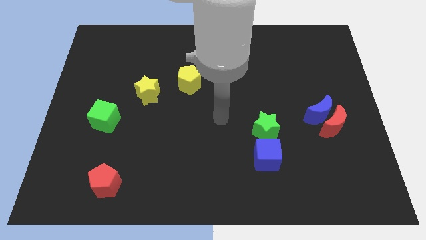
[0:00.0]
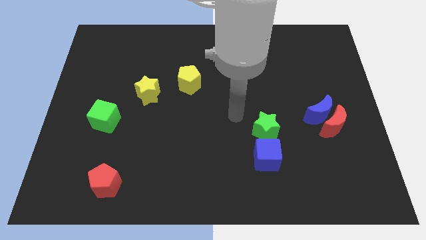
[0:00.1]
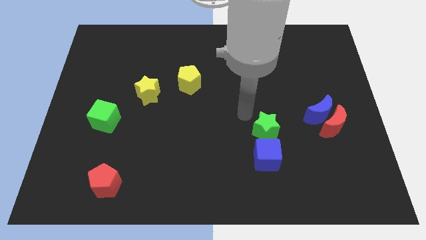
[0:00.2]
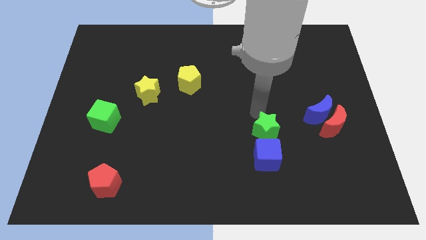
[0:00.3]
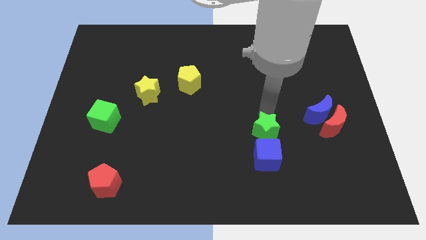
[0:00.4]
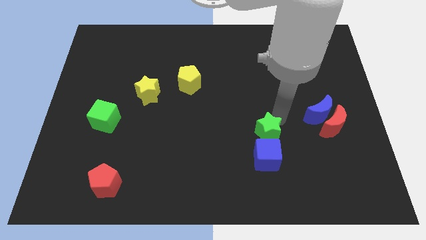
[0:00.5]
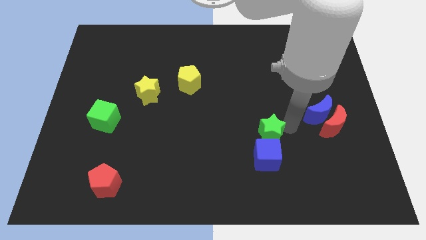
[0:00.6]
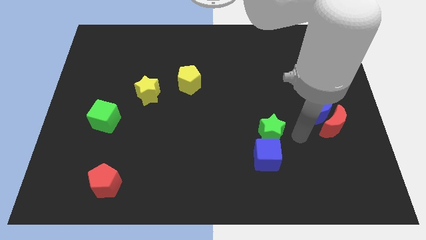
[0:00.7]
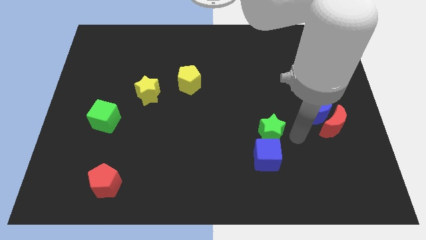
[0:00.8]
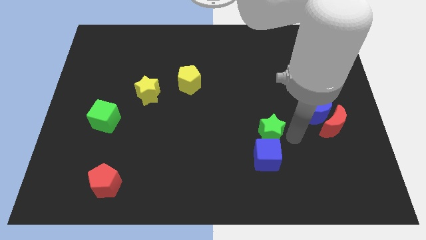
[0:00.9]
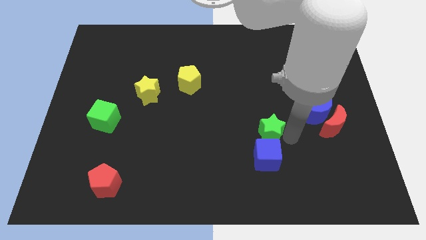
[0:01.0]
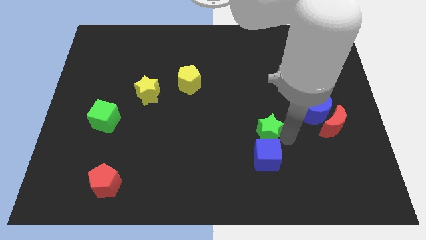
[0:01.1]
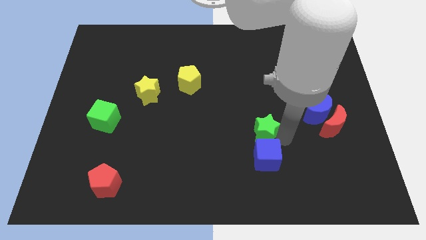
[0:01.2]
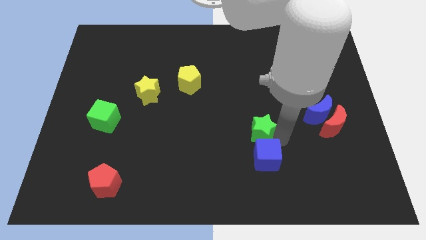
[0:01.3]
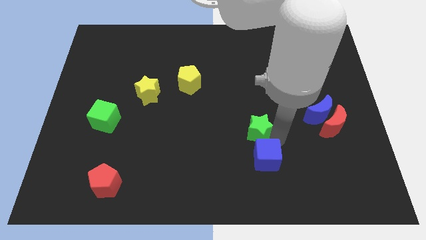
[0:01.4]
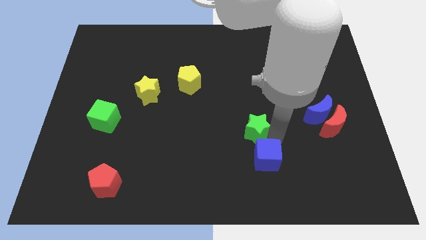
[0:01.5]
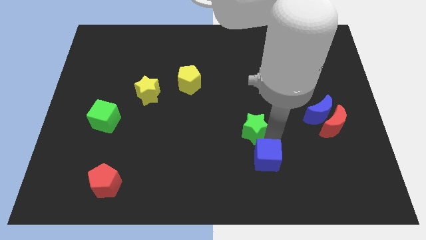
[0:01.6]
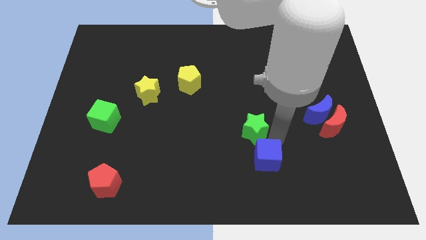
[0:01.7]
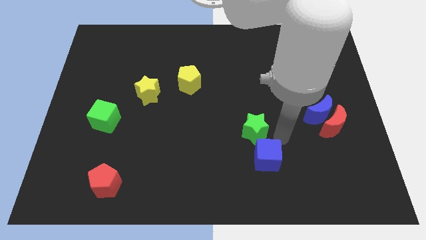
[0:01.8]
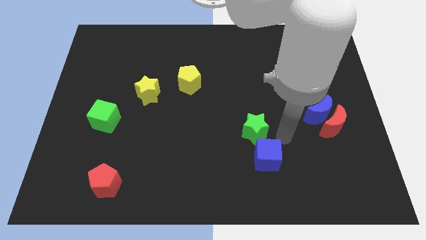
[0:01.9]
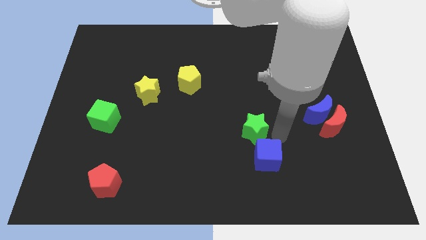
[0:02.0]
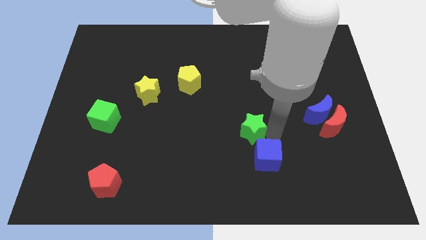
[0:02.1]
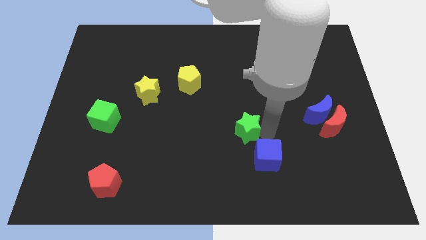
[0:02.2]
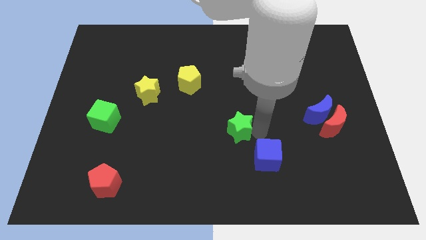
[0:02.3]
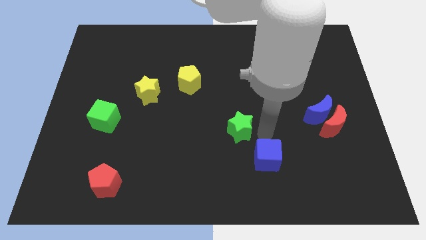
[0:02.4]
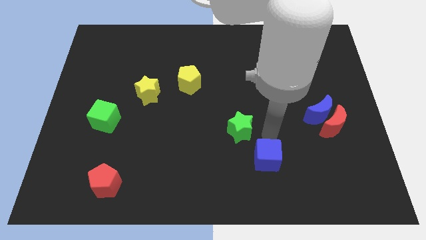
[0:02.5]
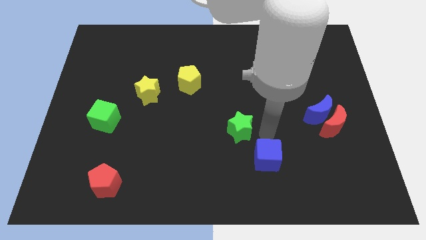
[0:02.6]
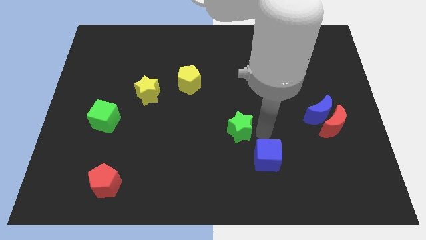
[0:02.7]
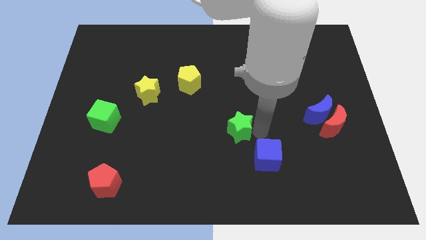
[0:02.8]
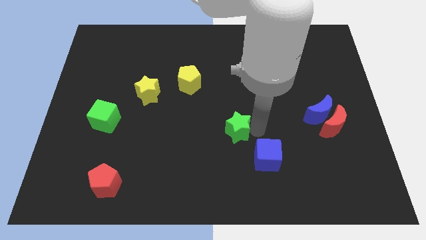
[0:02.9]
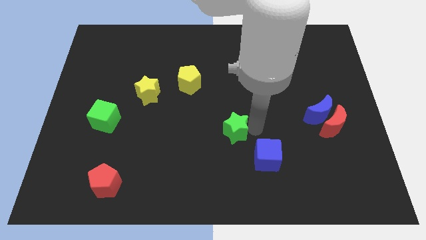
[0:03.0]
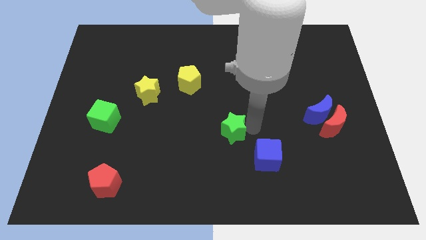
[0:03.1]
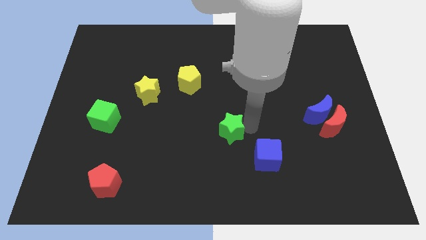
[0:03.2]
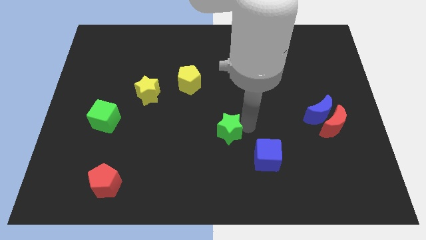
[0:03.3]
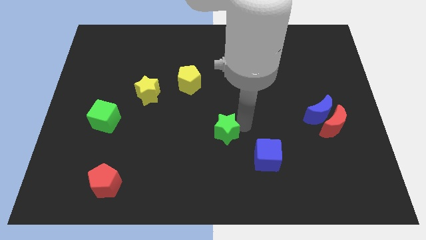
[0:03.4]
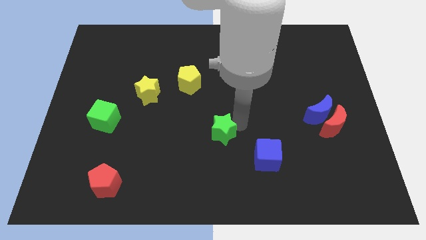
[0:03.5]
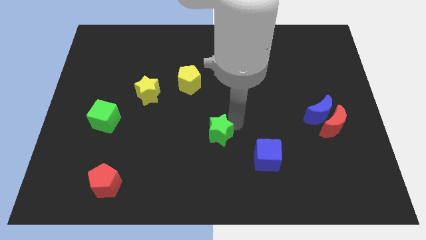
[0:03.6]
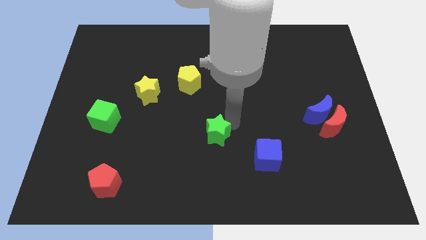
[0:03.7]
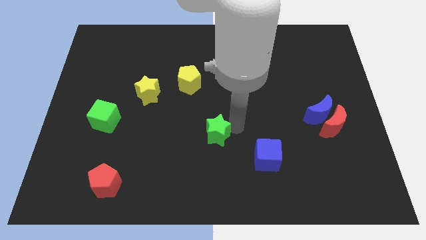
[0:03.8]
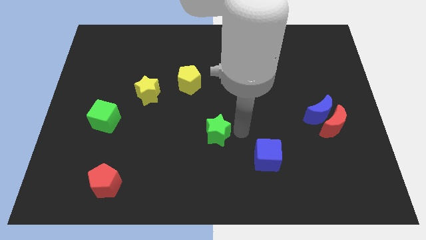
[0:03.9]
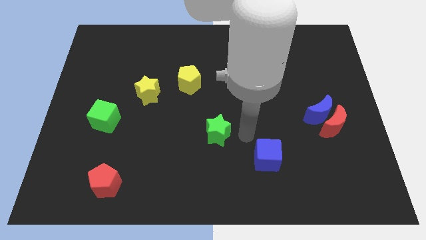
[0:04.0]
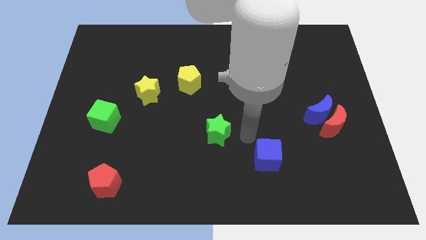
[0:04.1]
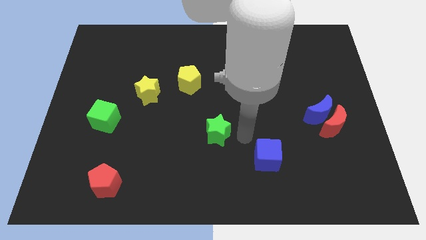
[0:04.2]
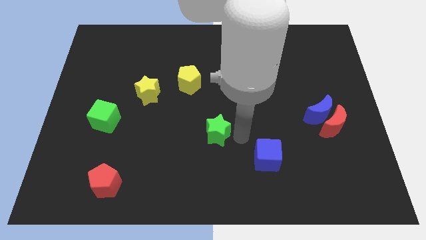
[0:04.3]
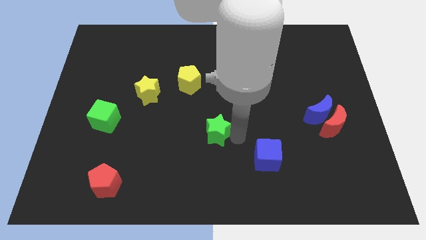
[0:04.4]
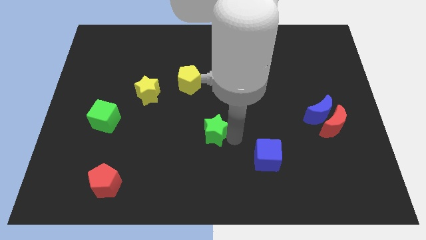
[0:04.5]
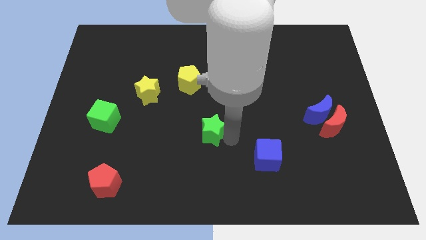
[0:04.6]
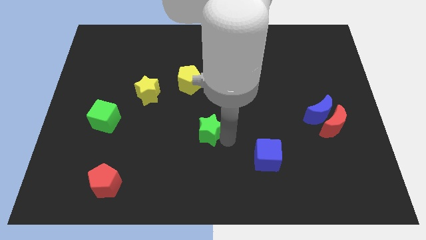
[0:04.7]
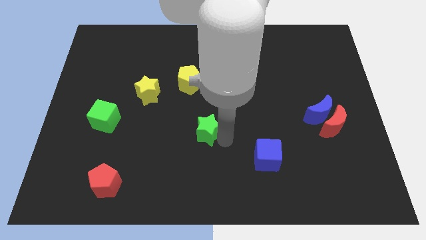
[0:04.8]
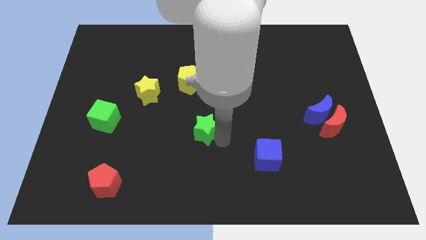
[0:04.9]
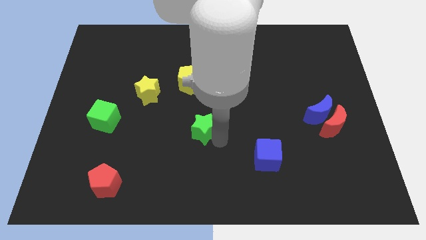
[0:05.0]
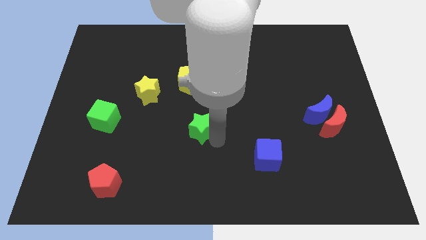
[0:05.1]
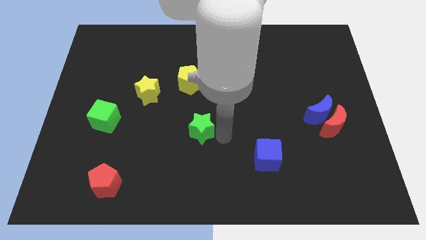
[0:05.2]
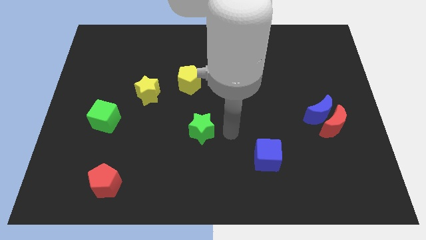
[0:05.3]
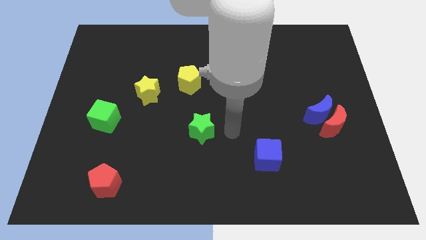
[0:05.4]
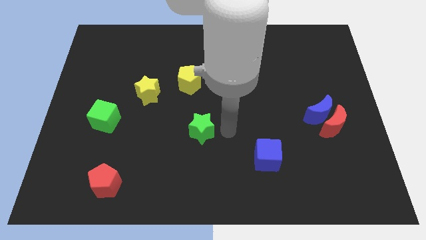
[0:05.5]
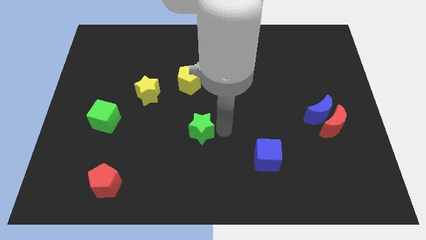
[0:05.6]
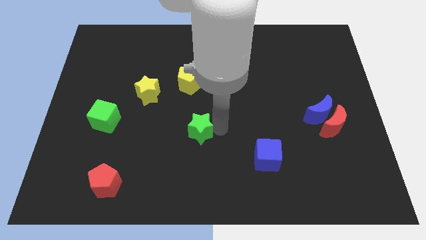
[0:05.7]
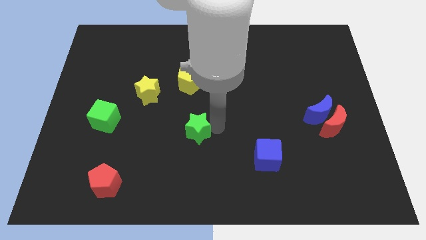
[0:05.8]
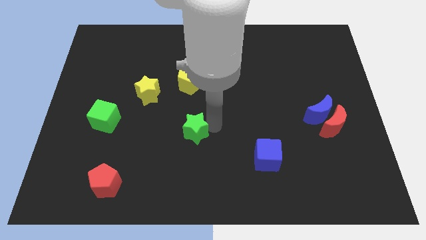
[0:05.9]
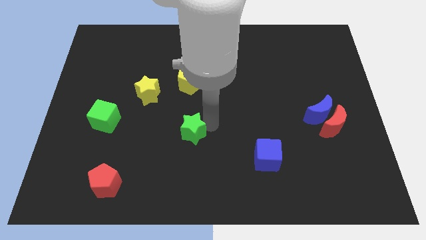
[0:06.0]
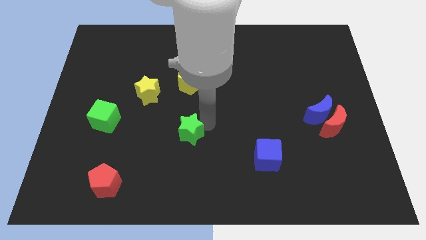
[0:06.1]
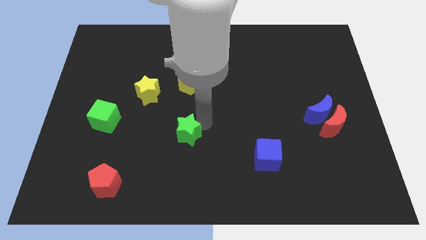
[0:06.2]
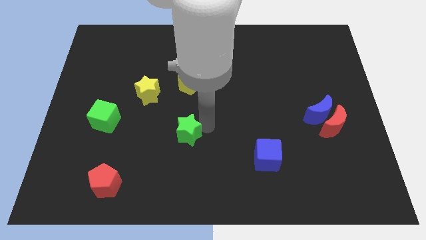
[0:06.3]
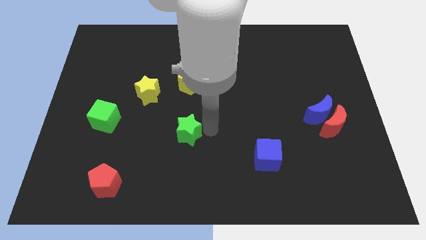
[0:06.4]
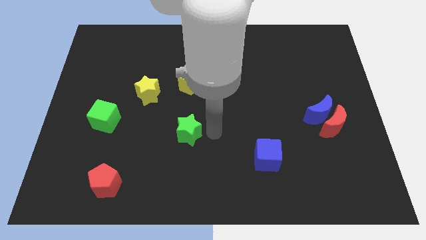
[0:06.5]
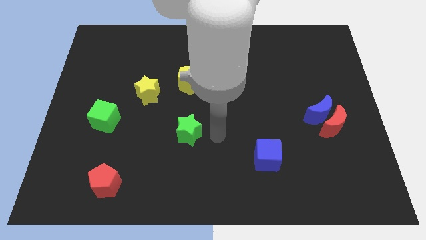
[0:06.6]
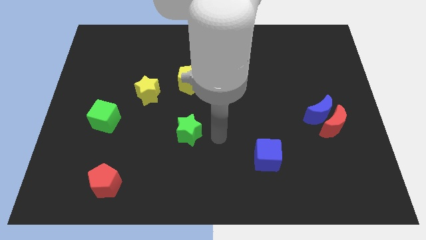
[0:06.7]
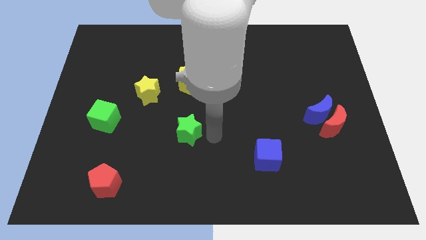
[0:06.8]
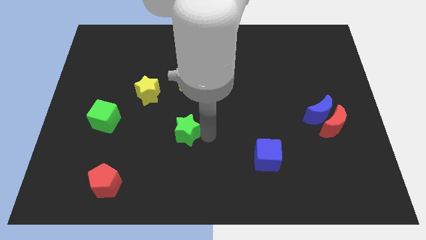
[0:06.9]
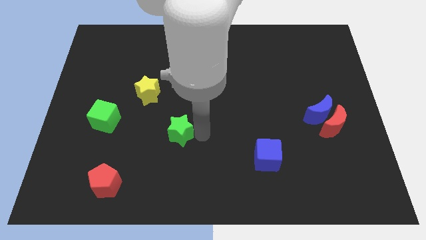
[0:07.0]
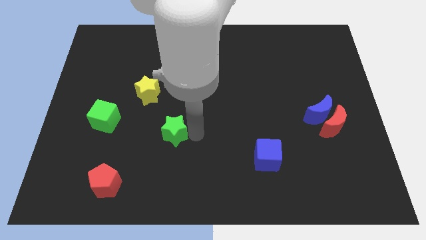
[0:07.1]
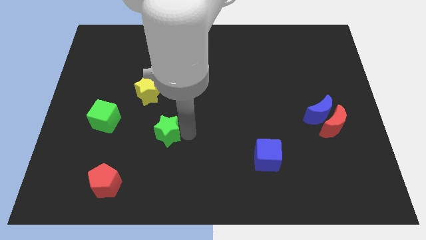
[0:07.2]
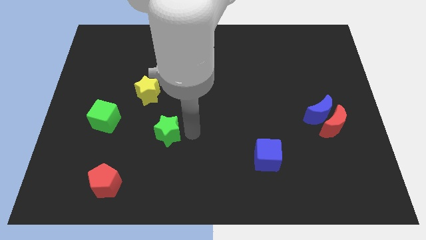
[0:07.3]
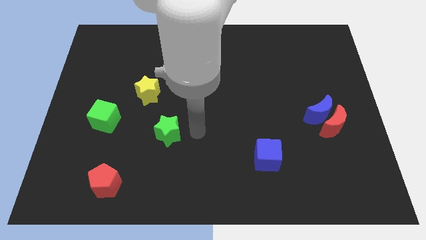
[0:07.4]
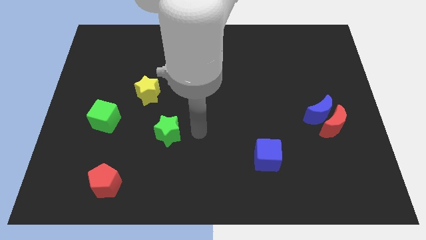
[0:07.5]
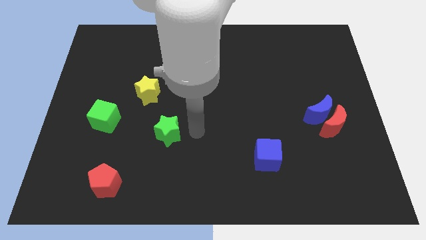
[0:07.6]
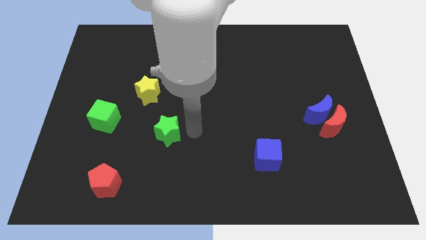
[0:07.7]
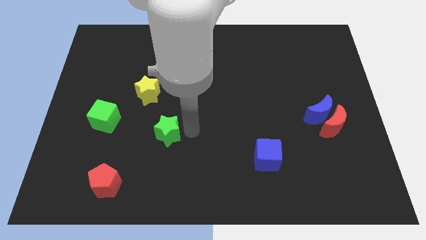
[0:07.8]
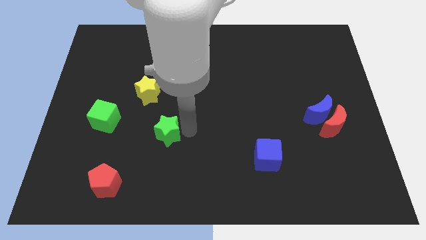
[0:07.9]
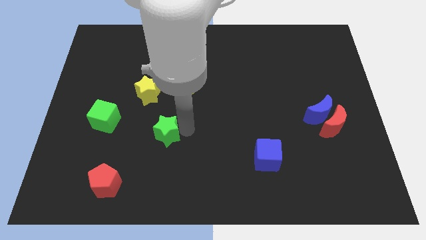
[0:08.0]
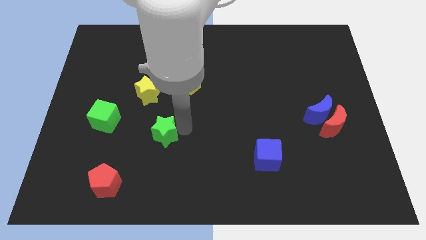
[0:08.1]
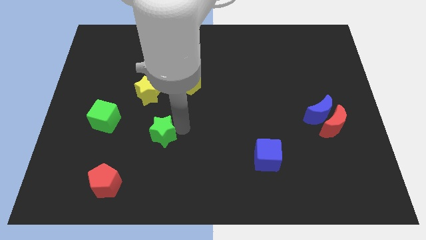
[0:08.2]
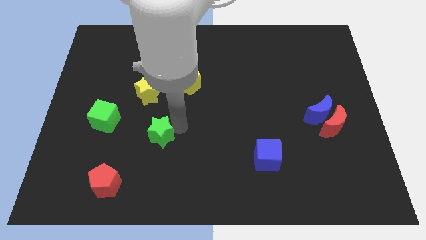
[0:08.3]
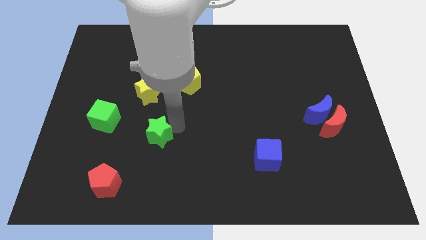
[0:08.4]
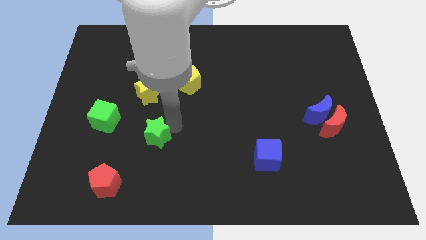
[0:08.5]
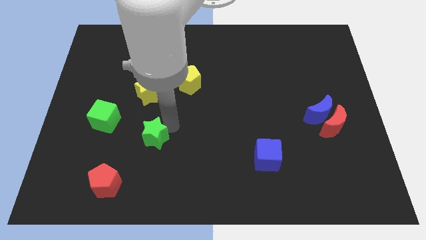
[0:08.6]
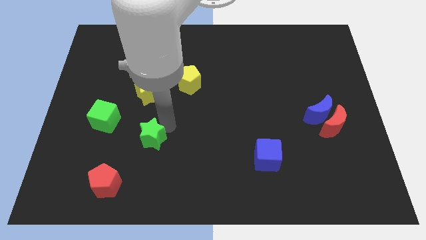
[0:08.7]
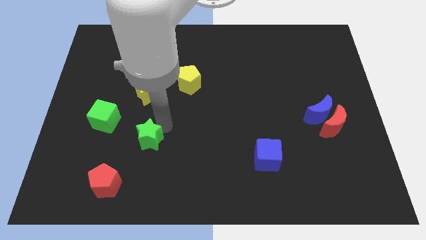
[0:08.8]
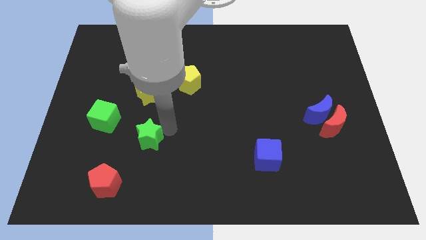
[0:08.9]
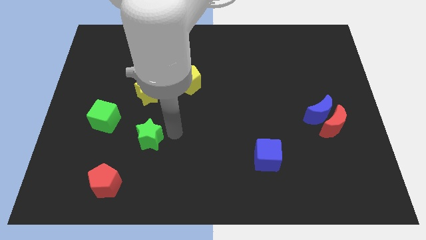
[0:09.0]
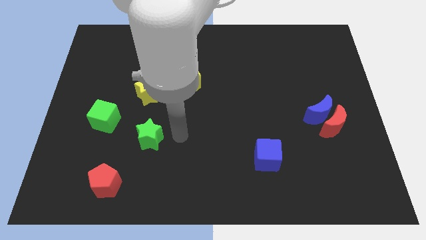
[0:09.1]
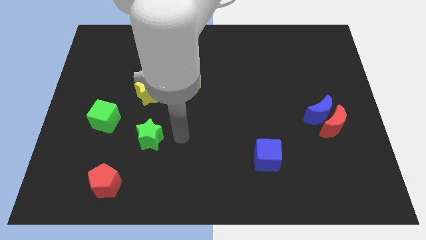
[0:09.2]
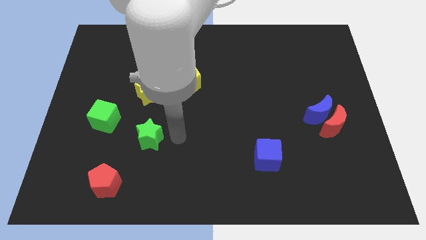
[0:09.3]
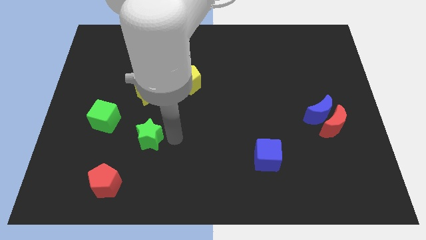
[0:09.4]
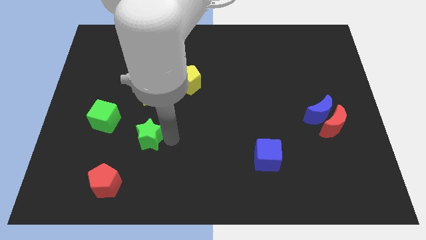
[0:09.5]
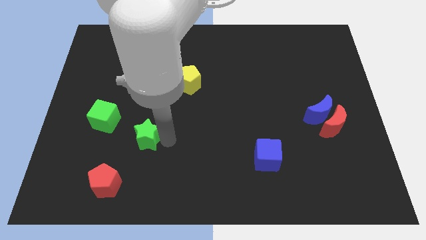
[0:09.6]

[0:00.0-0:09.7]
move the green star diagonally down and to the right of the green cube
